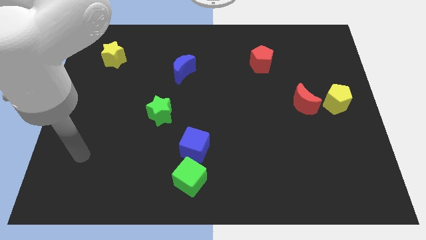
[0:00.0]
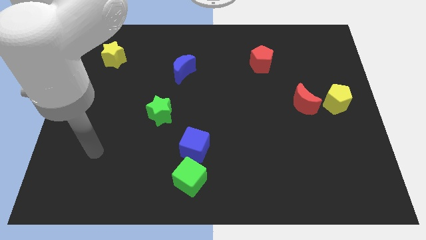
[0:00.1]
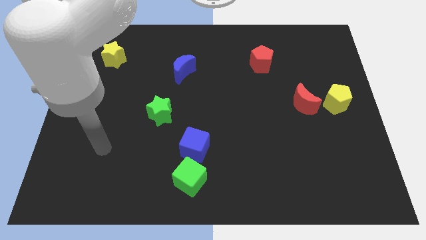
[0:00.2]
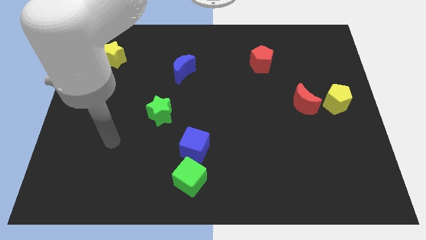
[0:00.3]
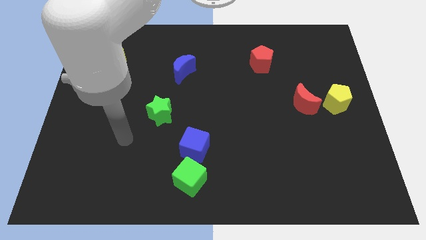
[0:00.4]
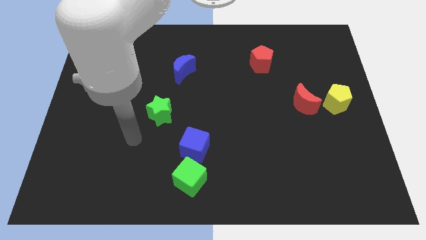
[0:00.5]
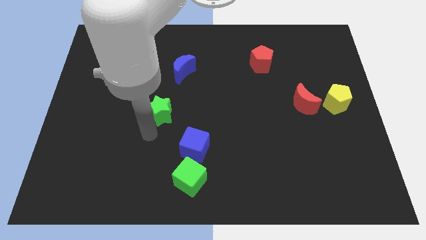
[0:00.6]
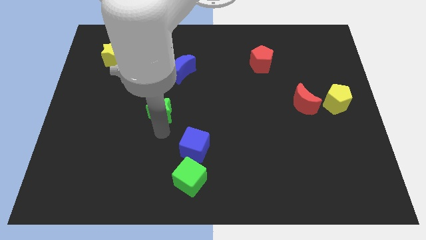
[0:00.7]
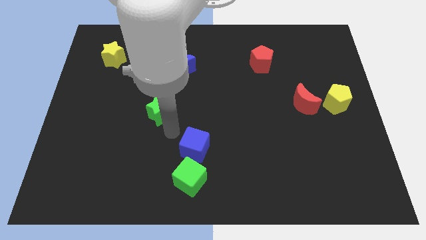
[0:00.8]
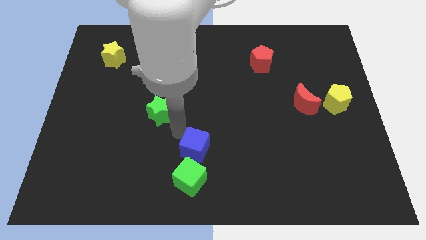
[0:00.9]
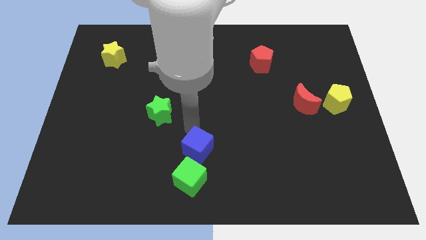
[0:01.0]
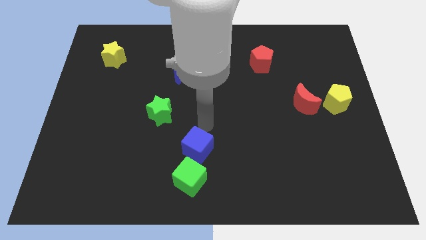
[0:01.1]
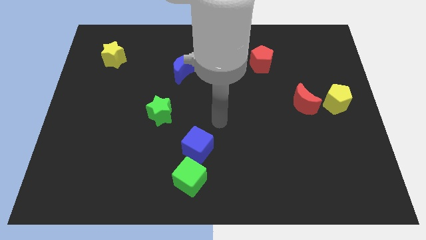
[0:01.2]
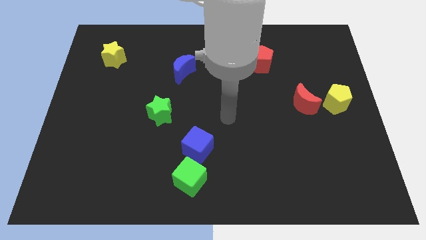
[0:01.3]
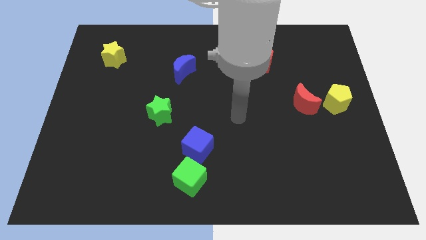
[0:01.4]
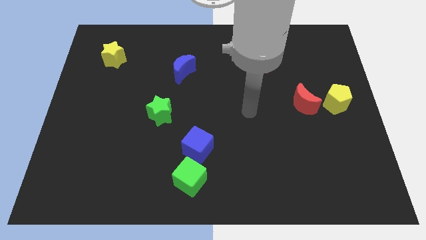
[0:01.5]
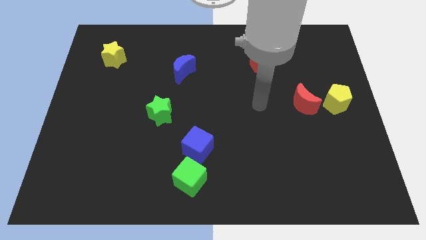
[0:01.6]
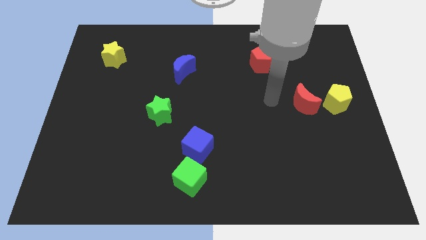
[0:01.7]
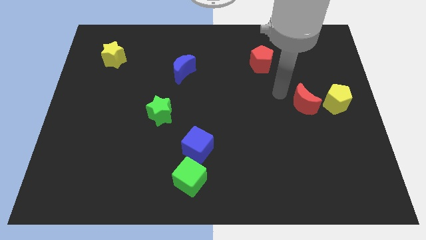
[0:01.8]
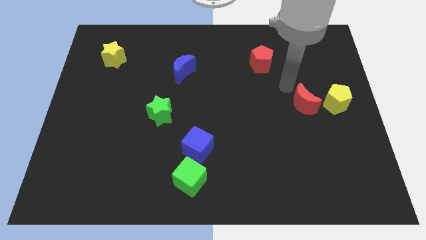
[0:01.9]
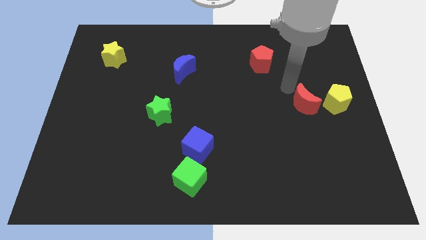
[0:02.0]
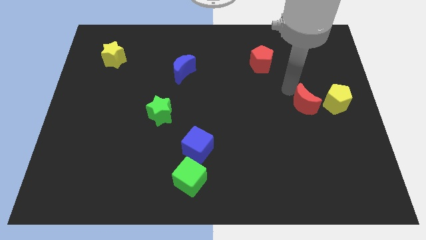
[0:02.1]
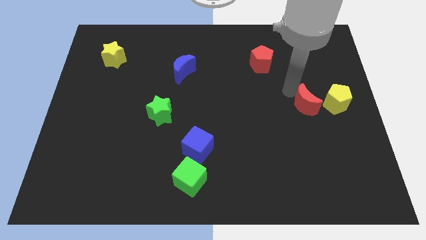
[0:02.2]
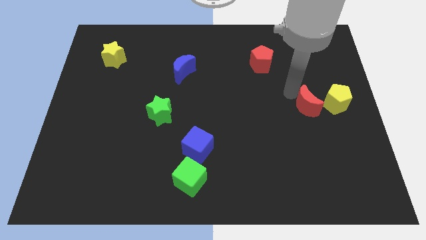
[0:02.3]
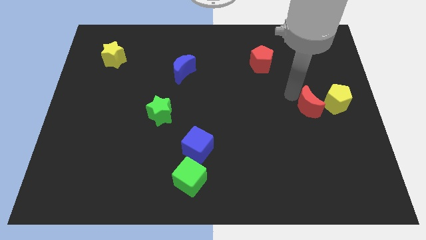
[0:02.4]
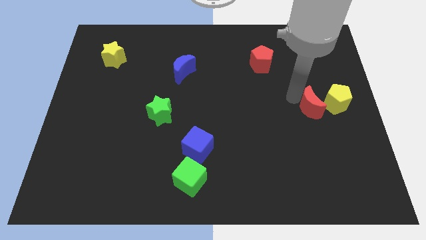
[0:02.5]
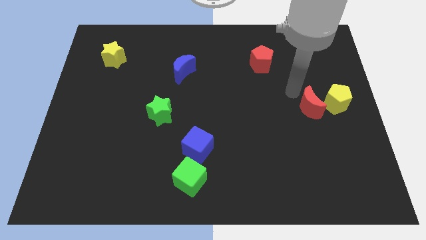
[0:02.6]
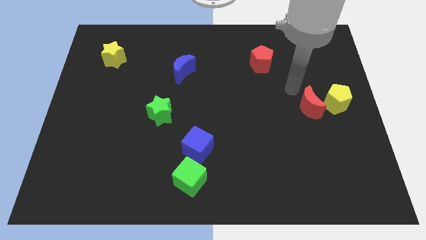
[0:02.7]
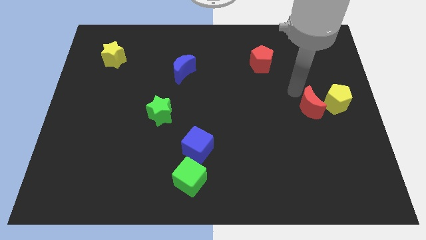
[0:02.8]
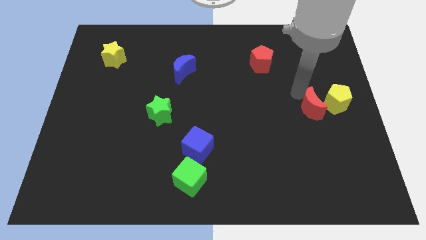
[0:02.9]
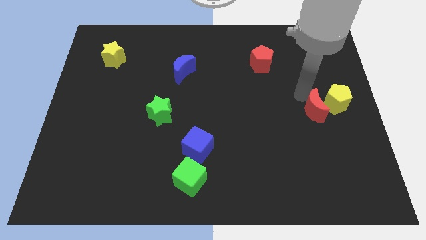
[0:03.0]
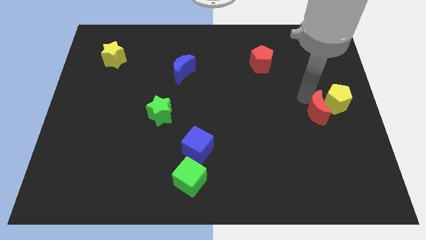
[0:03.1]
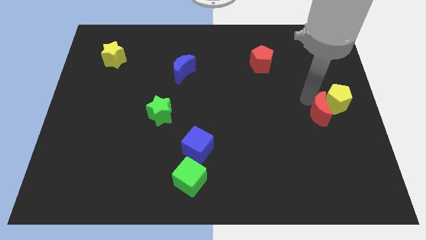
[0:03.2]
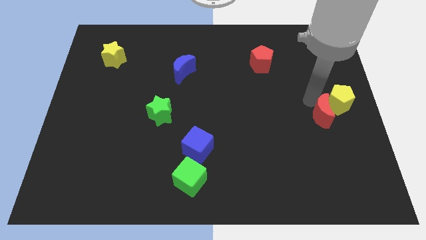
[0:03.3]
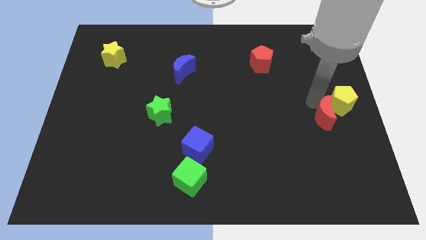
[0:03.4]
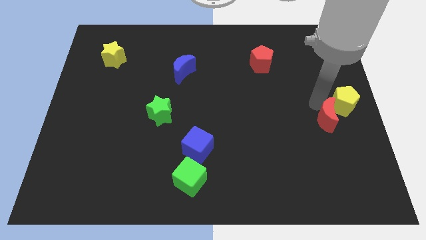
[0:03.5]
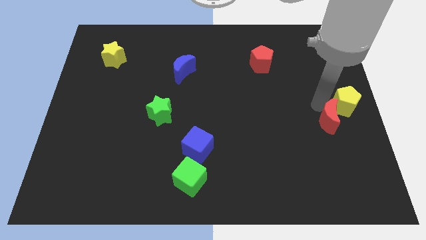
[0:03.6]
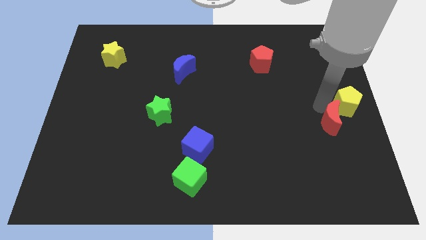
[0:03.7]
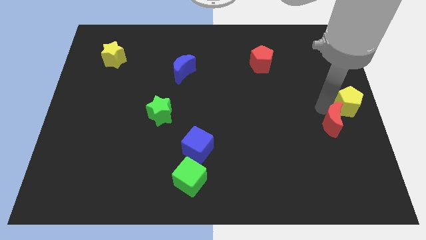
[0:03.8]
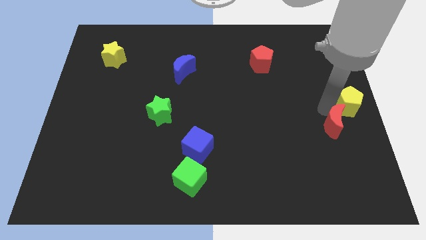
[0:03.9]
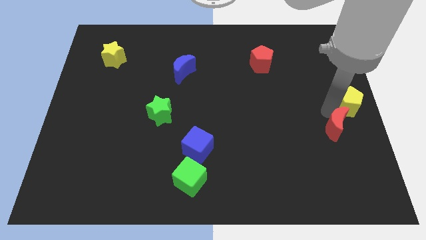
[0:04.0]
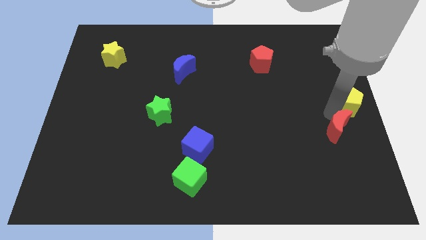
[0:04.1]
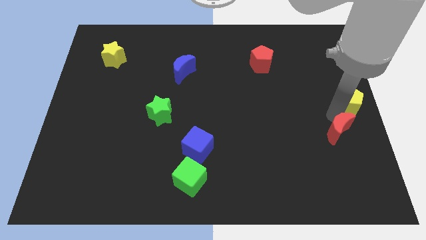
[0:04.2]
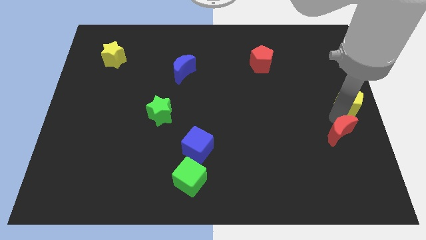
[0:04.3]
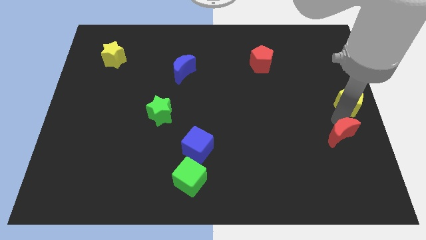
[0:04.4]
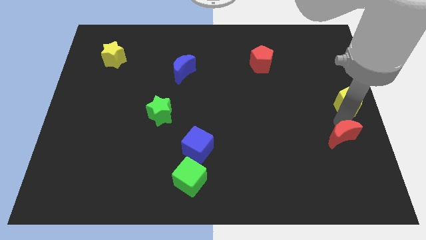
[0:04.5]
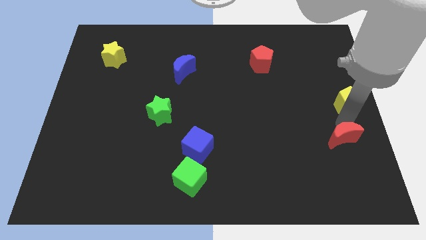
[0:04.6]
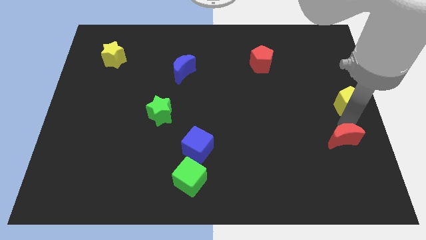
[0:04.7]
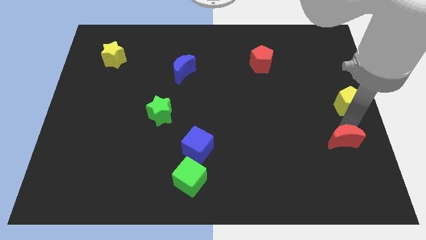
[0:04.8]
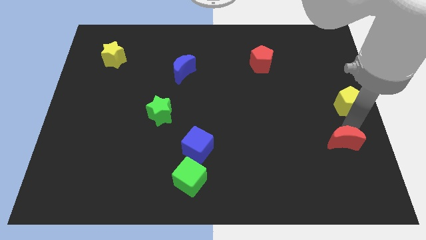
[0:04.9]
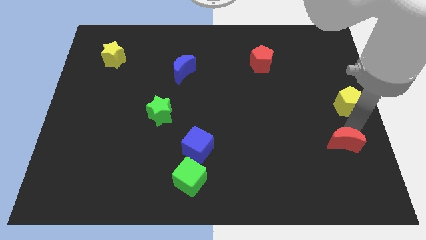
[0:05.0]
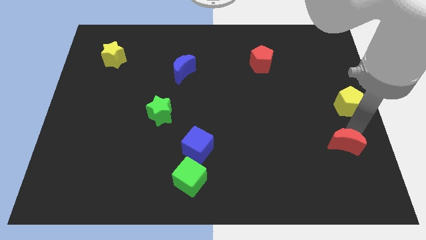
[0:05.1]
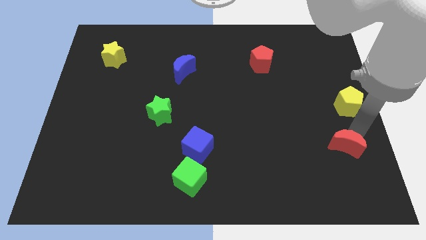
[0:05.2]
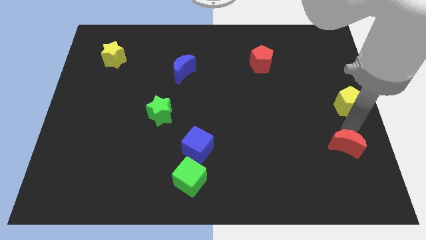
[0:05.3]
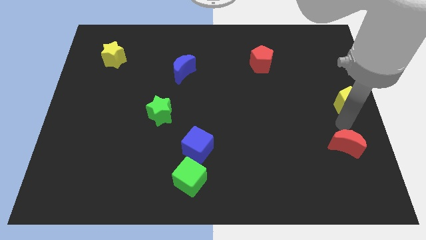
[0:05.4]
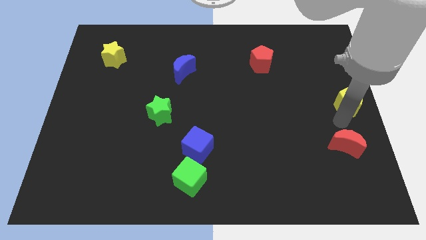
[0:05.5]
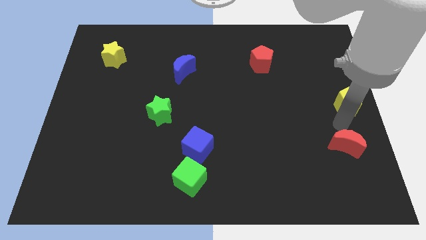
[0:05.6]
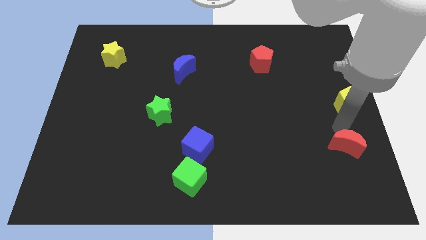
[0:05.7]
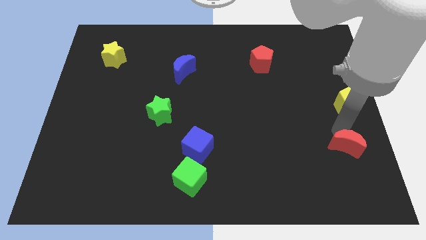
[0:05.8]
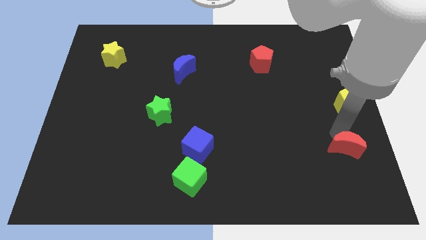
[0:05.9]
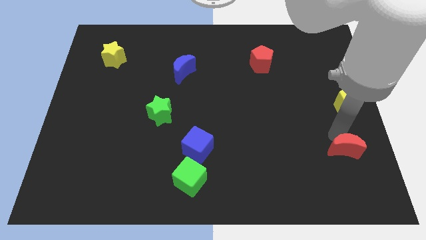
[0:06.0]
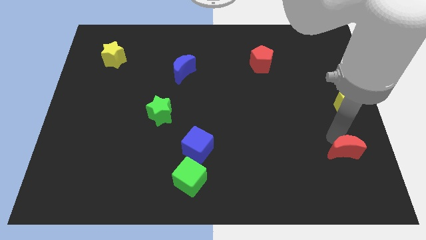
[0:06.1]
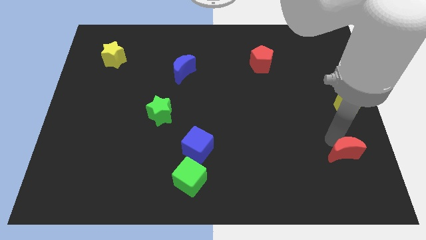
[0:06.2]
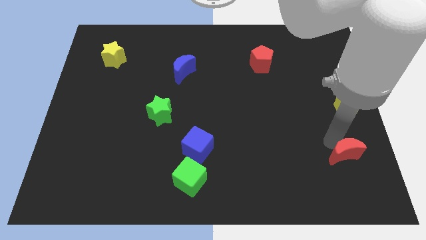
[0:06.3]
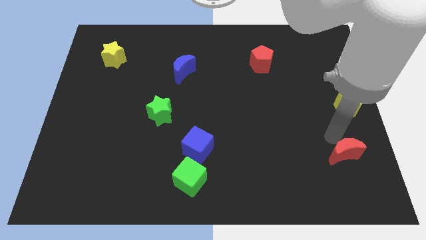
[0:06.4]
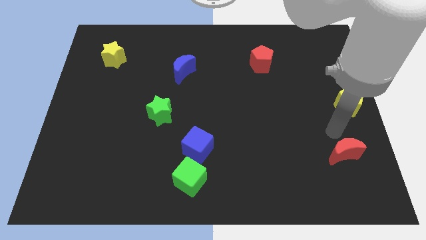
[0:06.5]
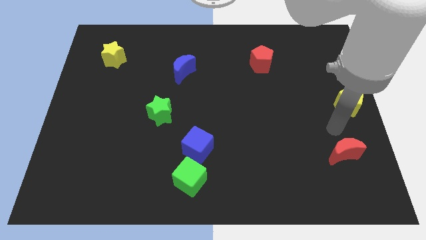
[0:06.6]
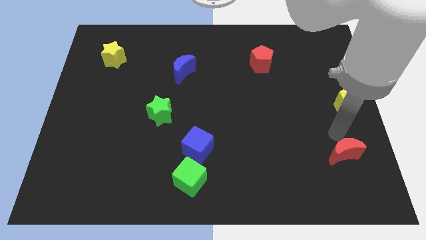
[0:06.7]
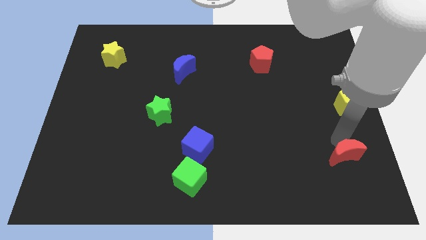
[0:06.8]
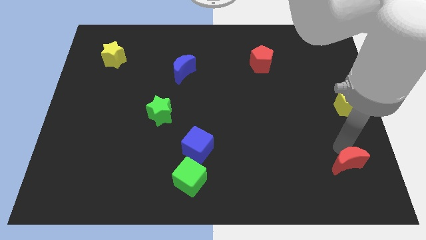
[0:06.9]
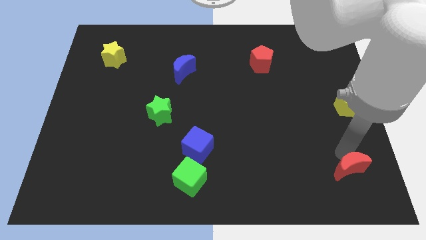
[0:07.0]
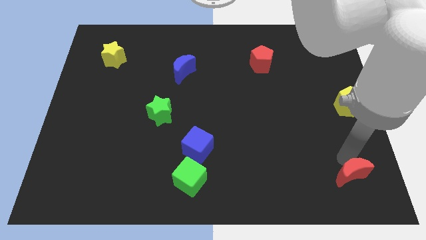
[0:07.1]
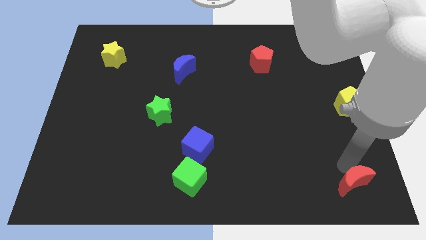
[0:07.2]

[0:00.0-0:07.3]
push the red moon to the bottom right

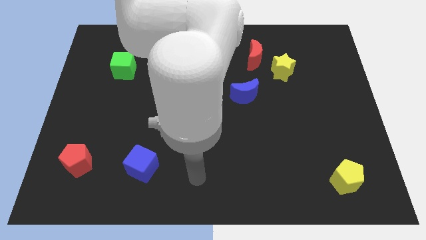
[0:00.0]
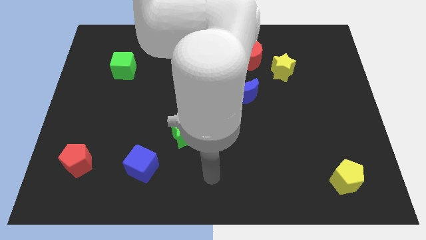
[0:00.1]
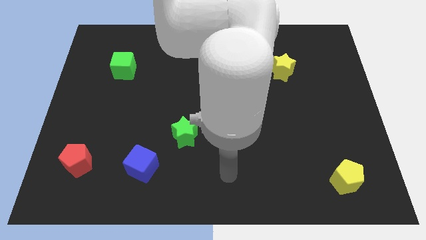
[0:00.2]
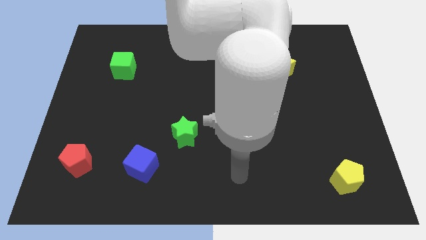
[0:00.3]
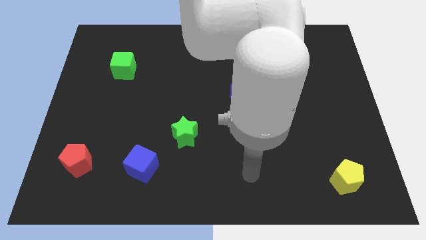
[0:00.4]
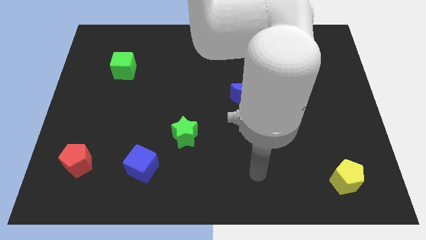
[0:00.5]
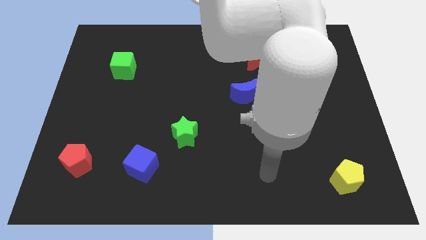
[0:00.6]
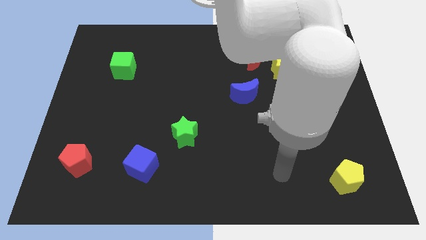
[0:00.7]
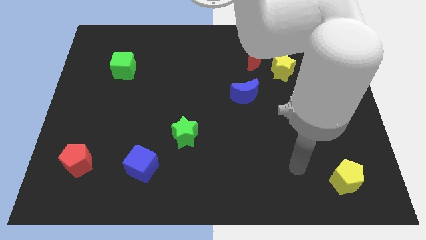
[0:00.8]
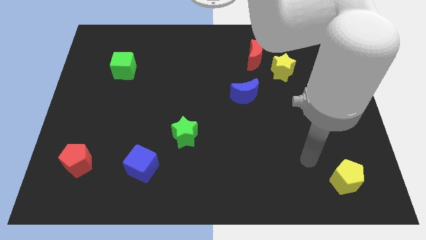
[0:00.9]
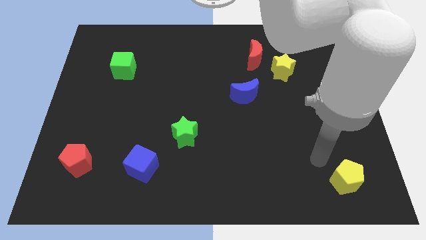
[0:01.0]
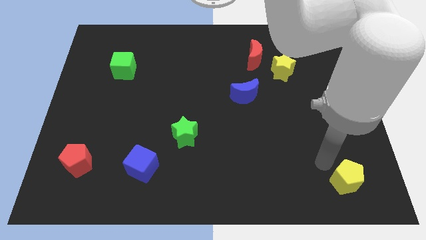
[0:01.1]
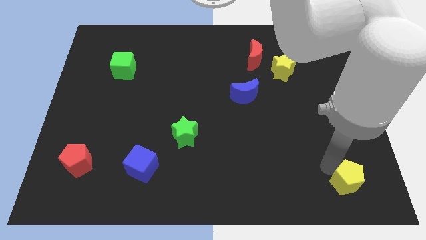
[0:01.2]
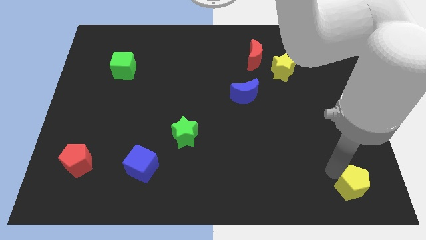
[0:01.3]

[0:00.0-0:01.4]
slide the yellow pentagon to the bottom right
